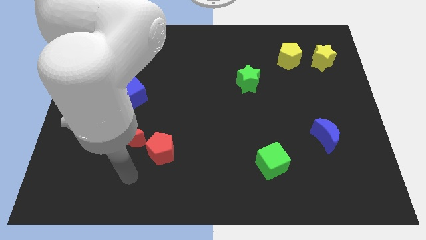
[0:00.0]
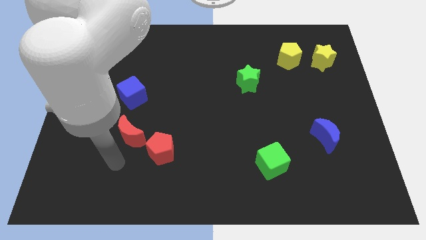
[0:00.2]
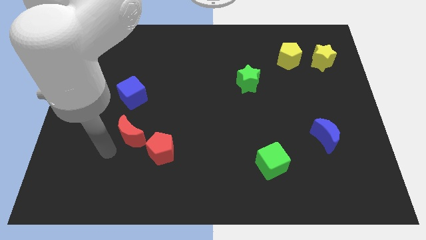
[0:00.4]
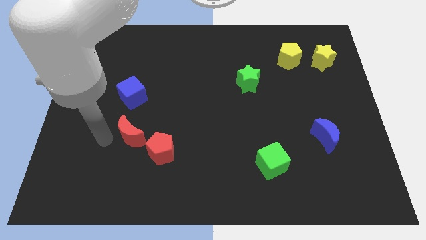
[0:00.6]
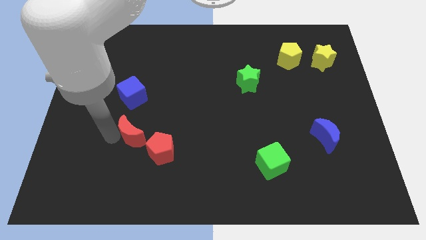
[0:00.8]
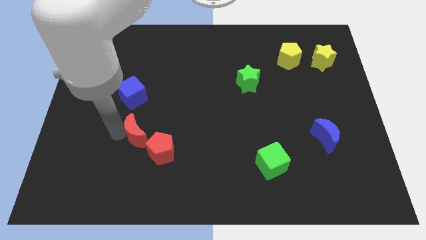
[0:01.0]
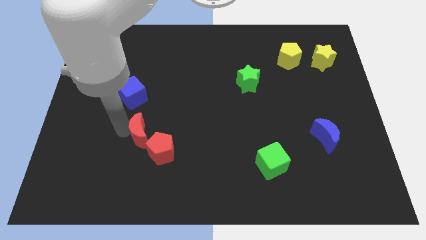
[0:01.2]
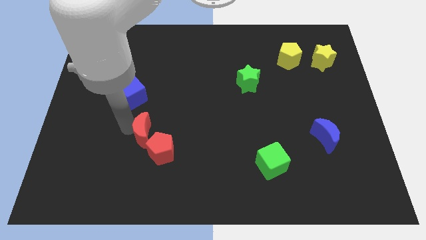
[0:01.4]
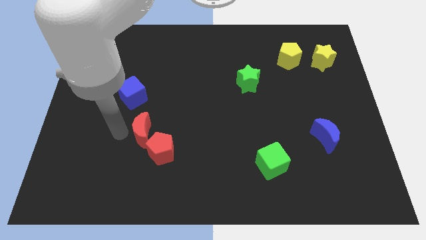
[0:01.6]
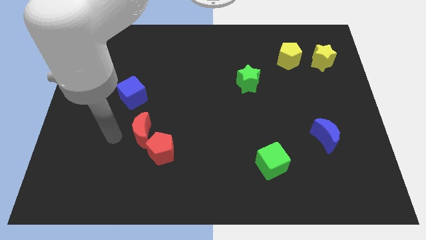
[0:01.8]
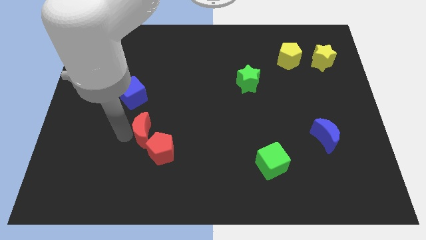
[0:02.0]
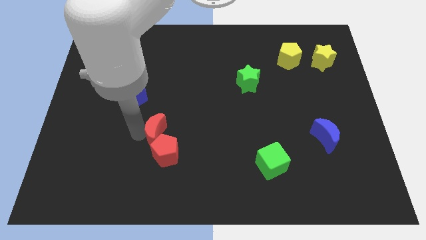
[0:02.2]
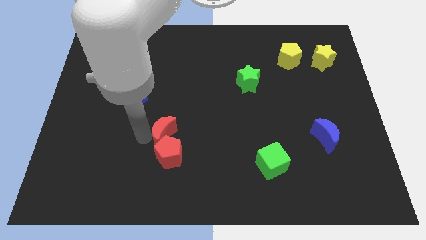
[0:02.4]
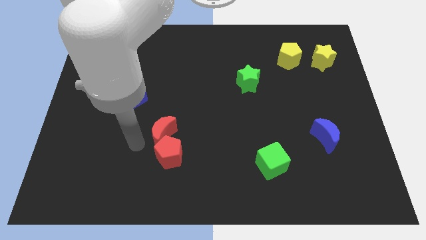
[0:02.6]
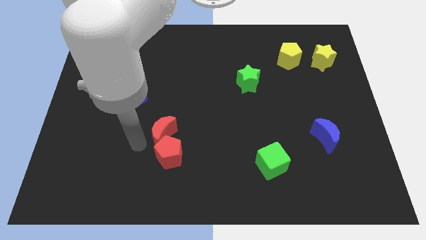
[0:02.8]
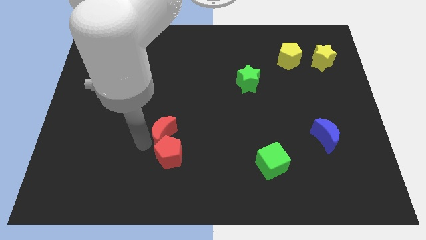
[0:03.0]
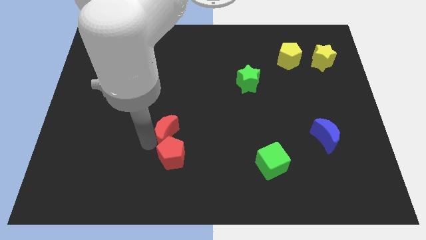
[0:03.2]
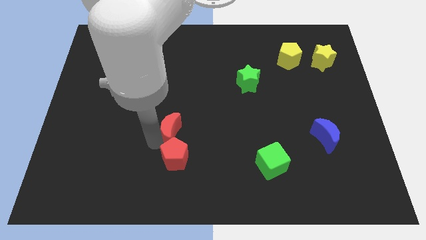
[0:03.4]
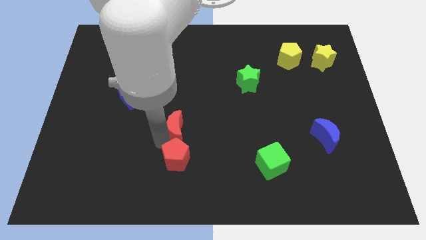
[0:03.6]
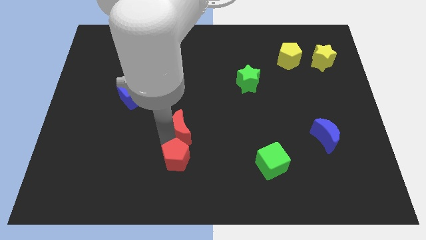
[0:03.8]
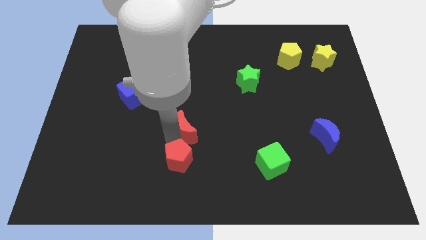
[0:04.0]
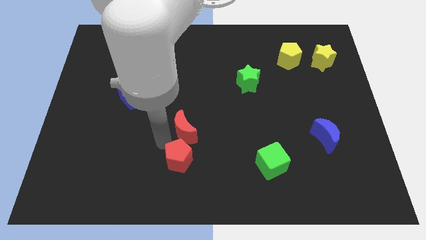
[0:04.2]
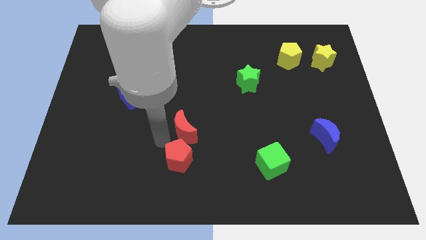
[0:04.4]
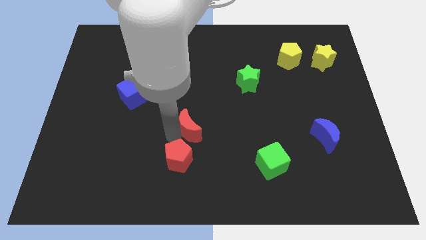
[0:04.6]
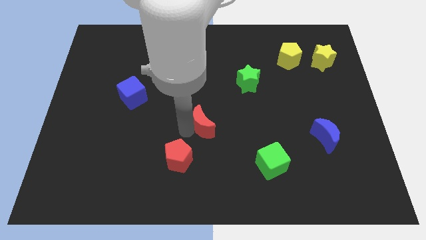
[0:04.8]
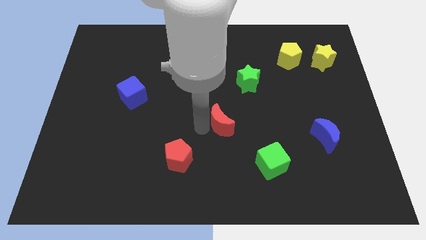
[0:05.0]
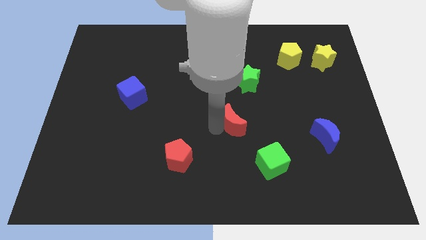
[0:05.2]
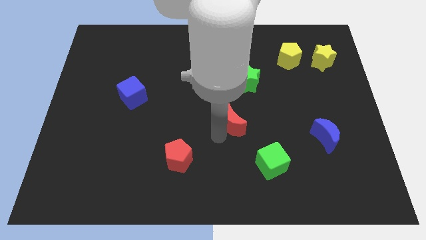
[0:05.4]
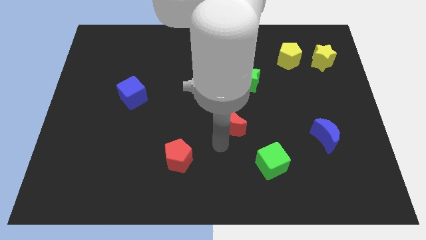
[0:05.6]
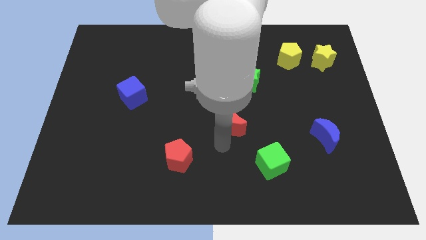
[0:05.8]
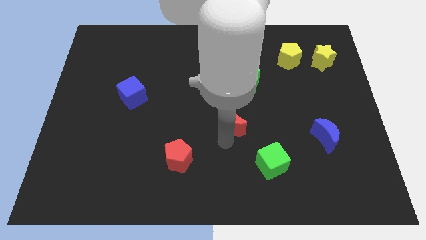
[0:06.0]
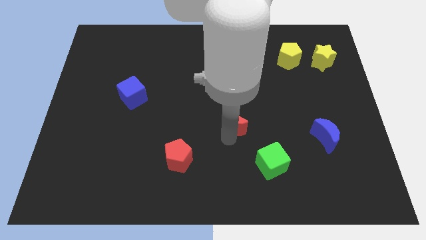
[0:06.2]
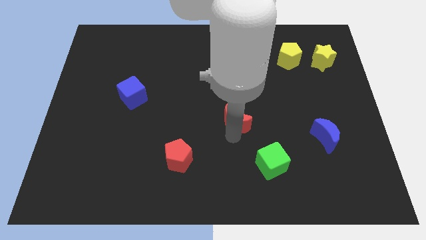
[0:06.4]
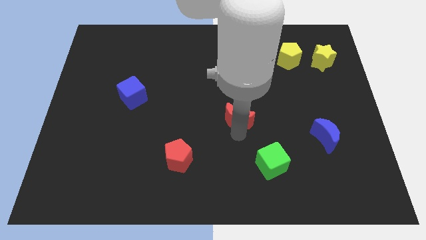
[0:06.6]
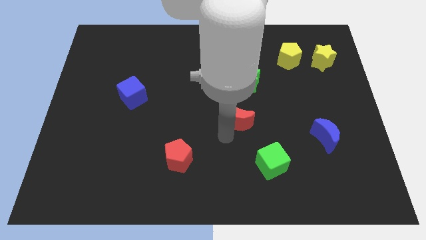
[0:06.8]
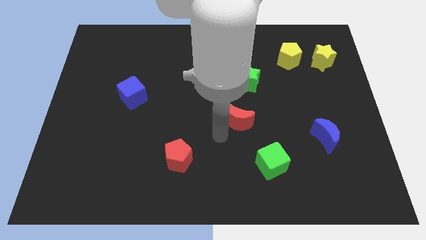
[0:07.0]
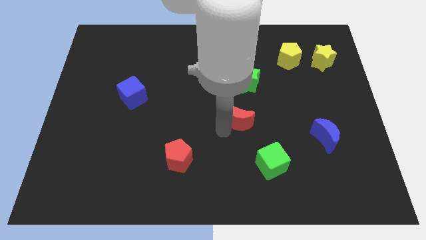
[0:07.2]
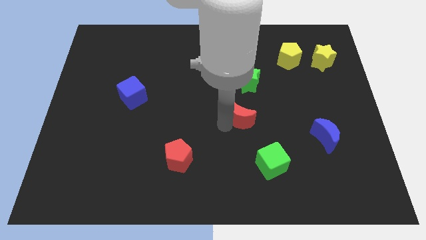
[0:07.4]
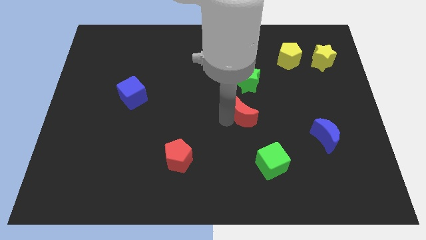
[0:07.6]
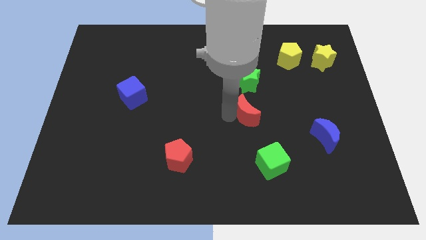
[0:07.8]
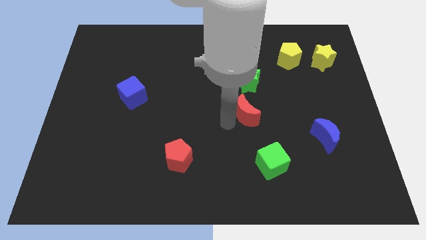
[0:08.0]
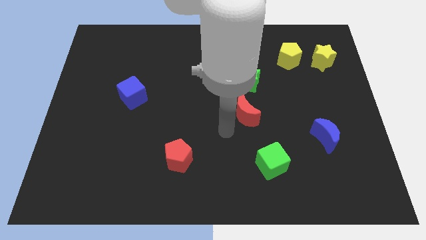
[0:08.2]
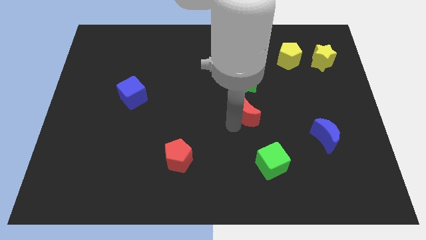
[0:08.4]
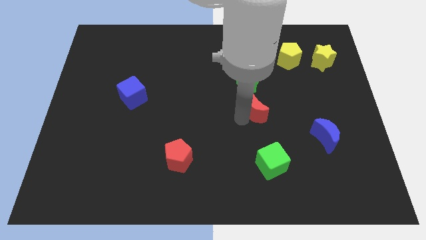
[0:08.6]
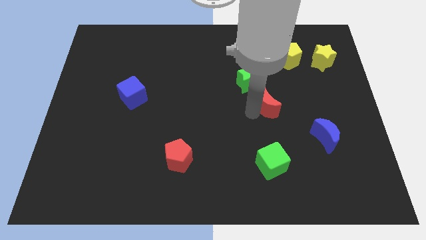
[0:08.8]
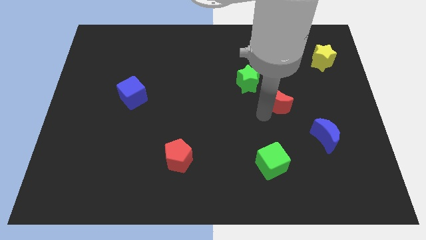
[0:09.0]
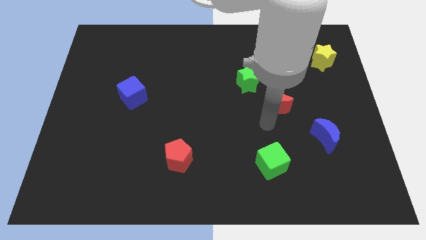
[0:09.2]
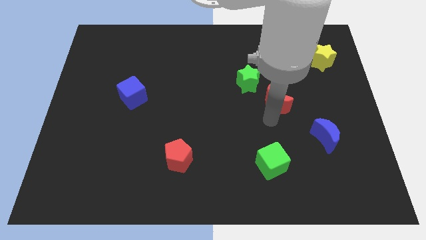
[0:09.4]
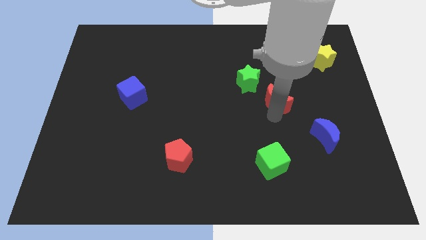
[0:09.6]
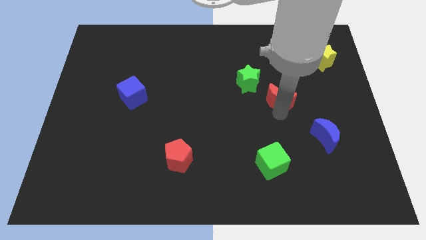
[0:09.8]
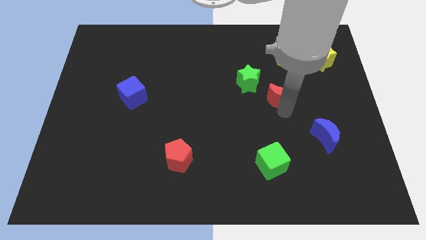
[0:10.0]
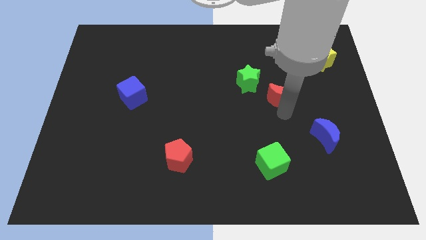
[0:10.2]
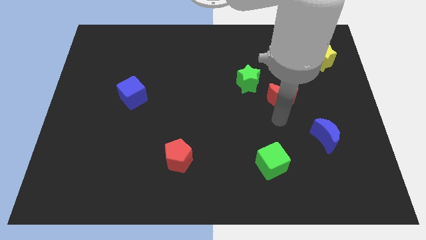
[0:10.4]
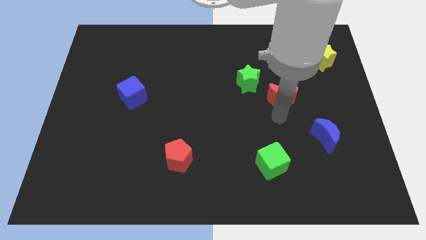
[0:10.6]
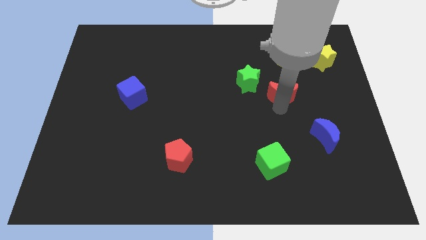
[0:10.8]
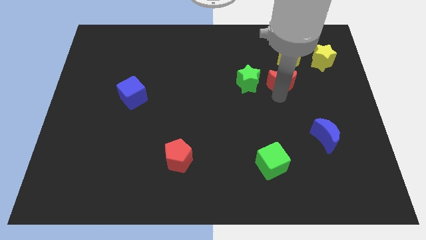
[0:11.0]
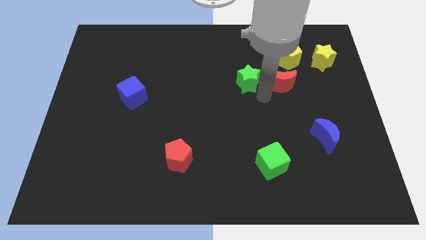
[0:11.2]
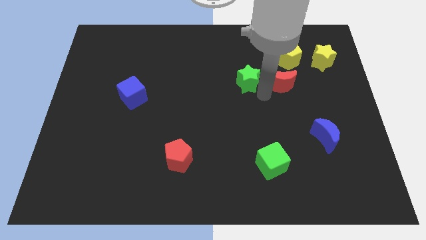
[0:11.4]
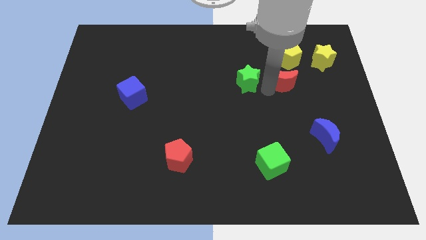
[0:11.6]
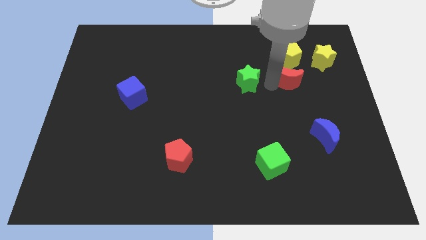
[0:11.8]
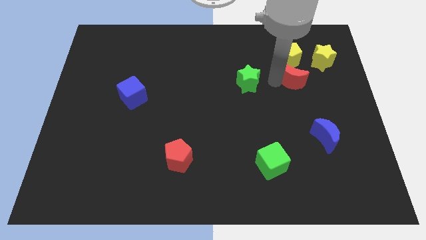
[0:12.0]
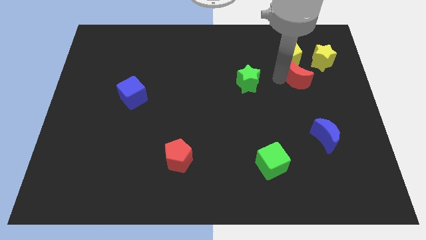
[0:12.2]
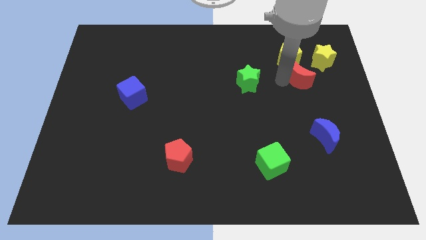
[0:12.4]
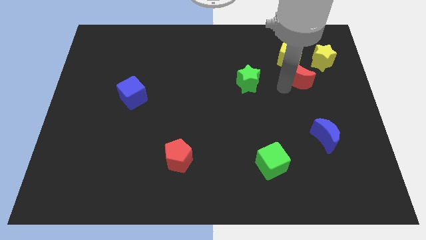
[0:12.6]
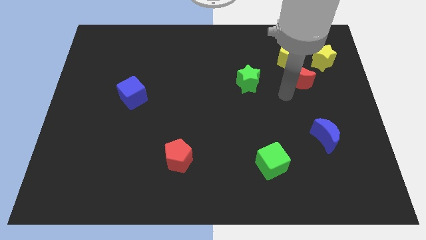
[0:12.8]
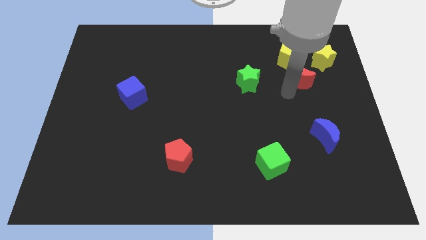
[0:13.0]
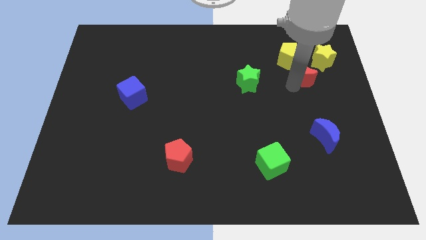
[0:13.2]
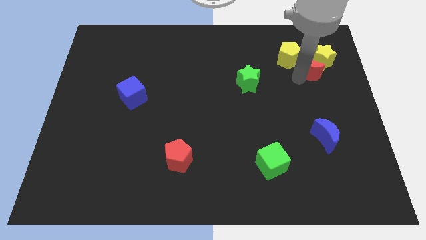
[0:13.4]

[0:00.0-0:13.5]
push the red moon close to the yellow star

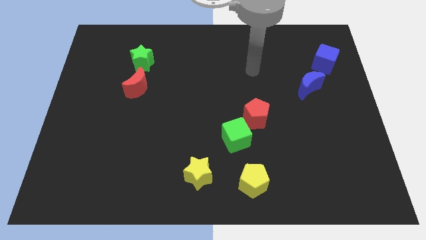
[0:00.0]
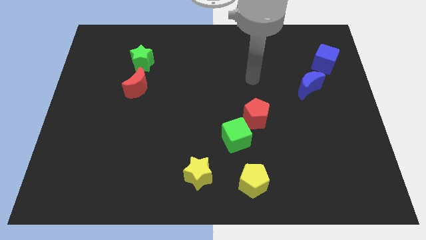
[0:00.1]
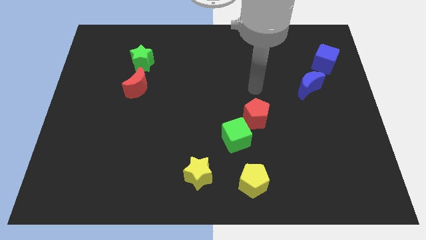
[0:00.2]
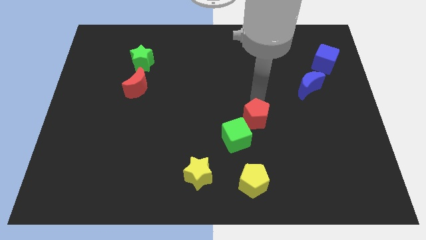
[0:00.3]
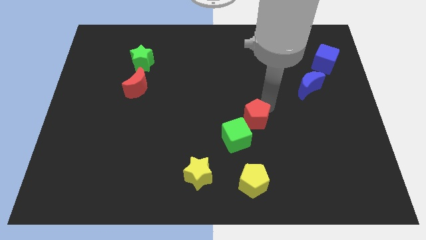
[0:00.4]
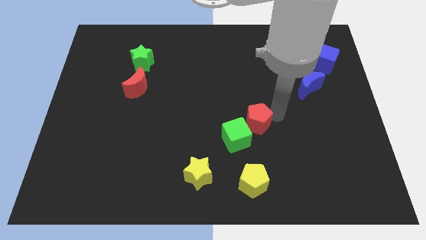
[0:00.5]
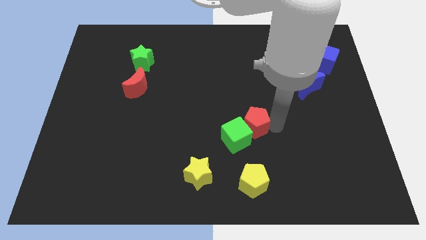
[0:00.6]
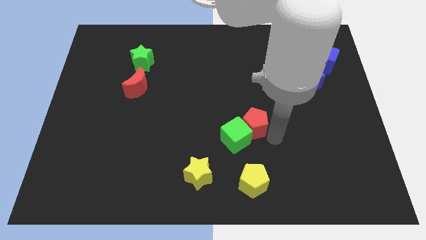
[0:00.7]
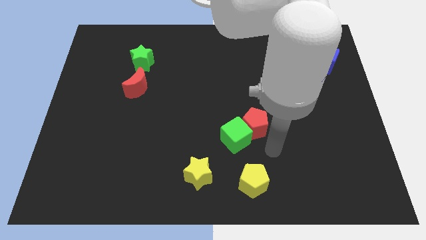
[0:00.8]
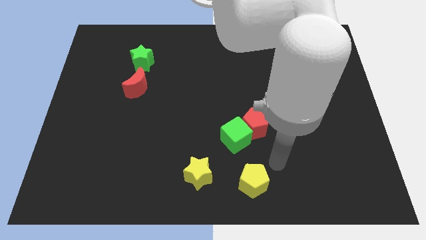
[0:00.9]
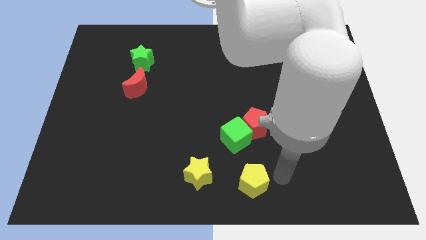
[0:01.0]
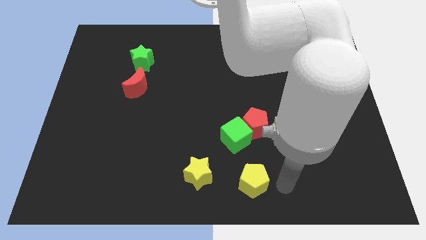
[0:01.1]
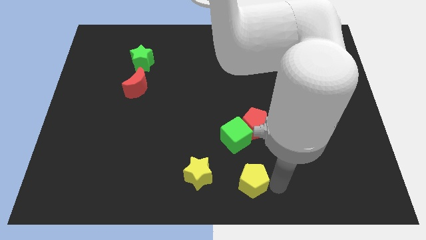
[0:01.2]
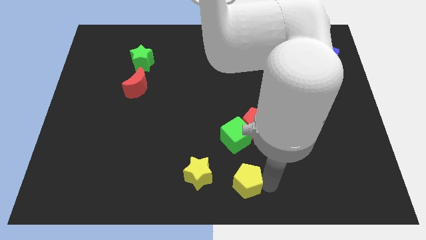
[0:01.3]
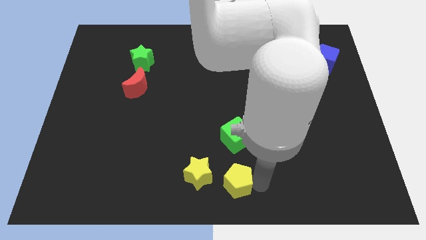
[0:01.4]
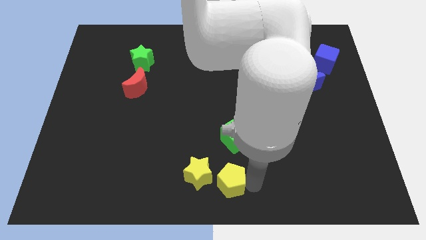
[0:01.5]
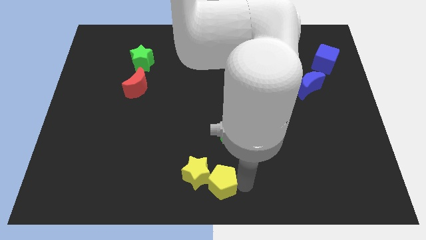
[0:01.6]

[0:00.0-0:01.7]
push the yellow pentagon to the yellow star
